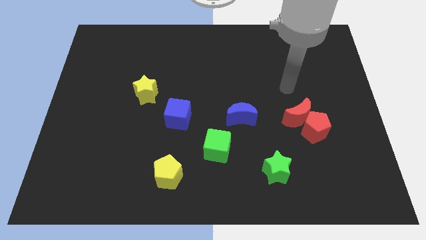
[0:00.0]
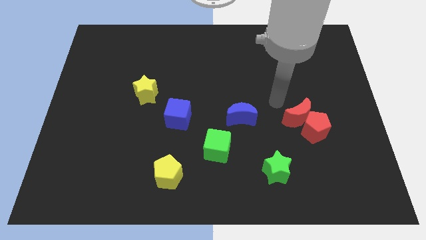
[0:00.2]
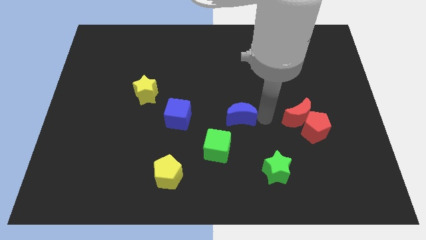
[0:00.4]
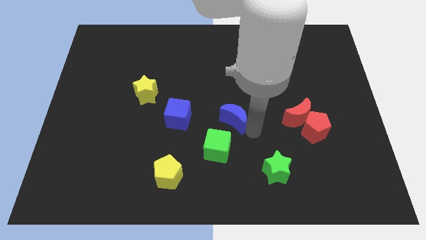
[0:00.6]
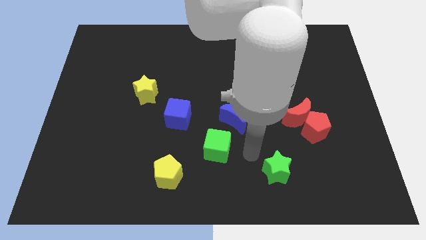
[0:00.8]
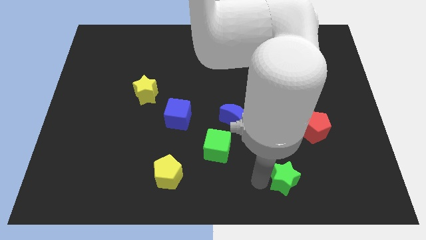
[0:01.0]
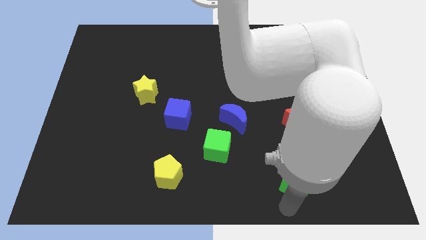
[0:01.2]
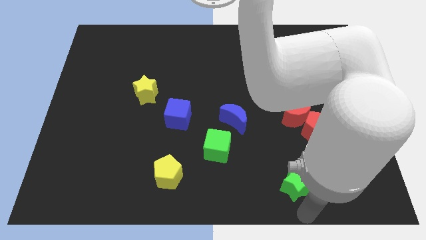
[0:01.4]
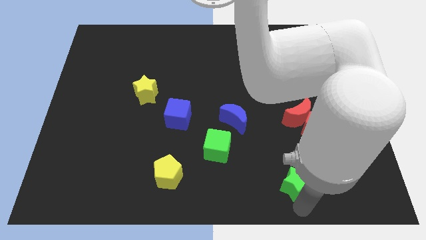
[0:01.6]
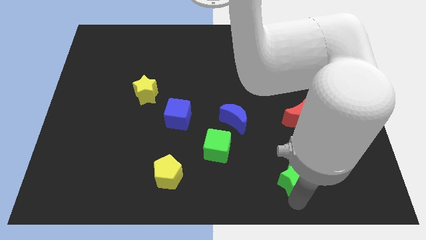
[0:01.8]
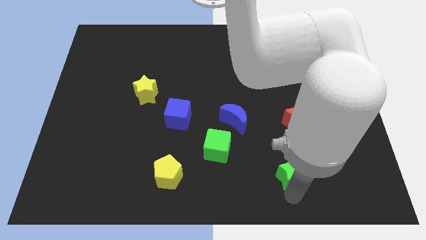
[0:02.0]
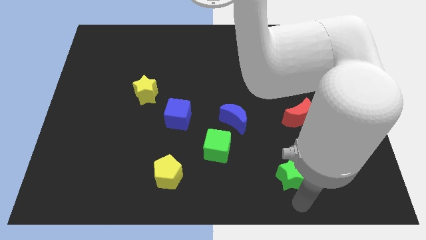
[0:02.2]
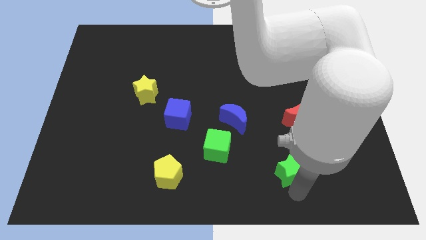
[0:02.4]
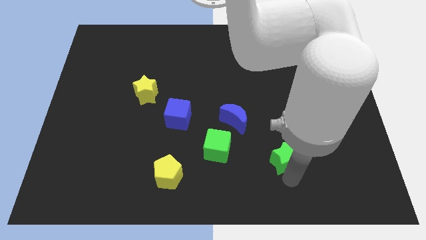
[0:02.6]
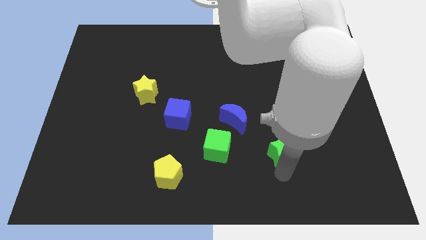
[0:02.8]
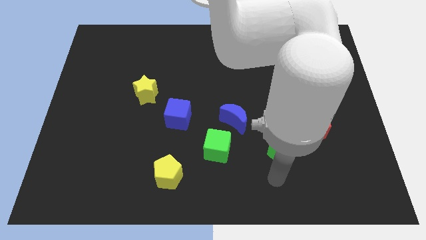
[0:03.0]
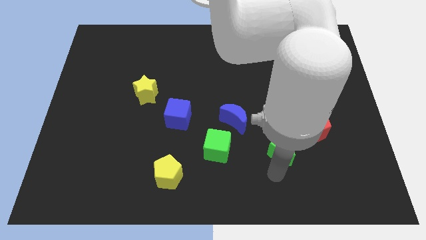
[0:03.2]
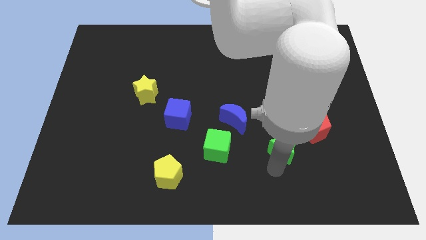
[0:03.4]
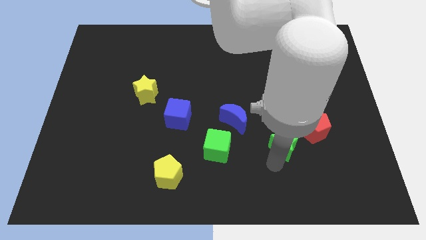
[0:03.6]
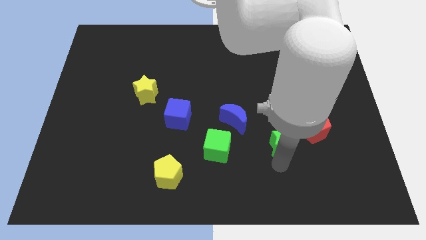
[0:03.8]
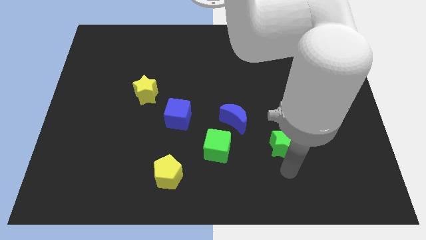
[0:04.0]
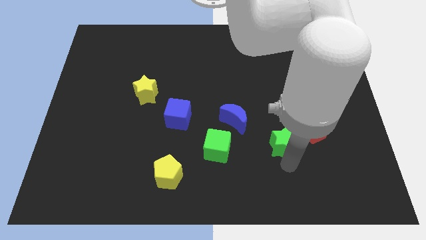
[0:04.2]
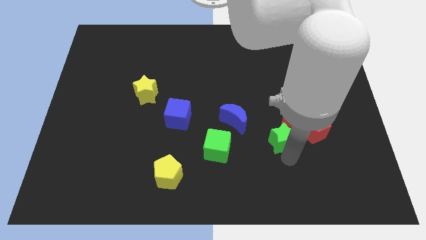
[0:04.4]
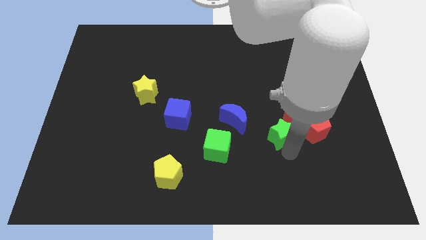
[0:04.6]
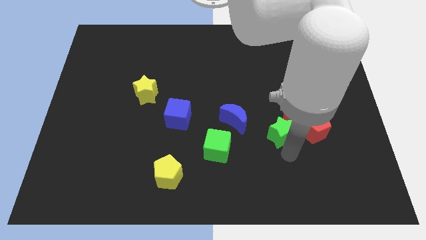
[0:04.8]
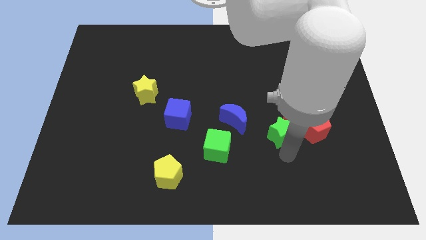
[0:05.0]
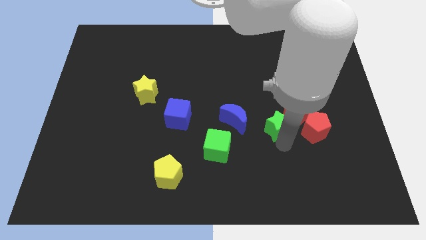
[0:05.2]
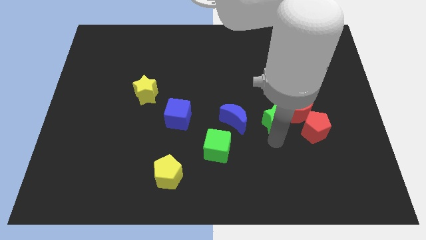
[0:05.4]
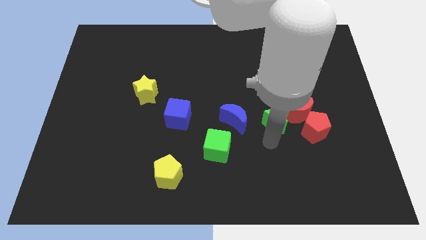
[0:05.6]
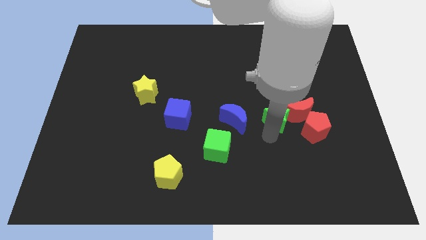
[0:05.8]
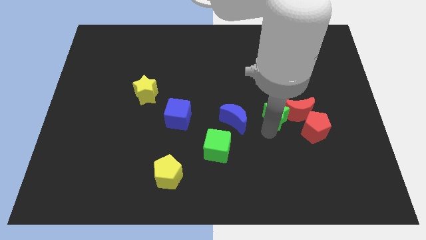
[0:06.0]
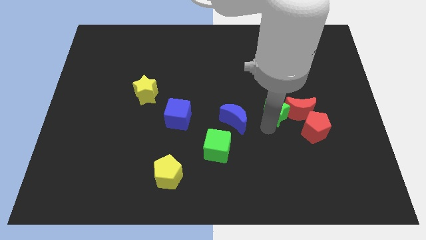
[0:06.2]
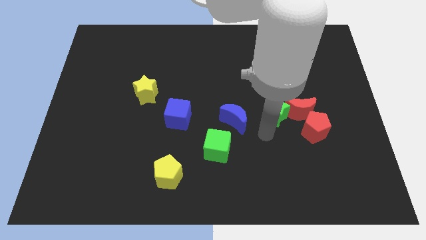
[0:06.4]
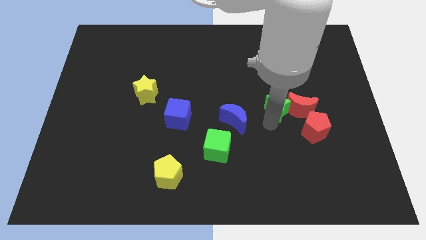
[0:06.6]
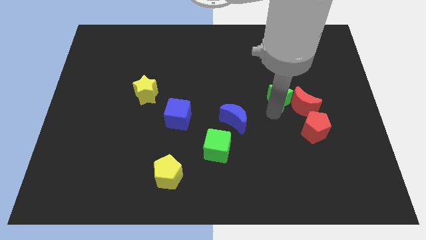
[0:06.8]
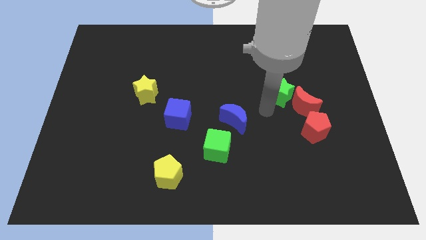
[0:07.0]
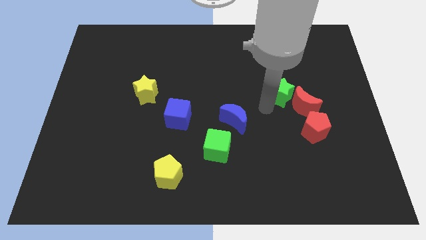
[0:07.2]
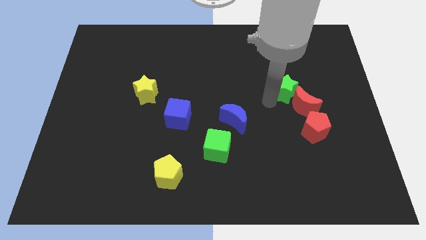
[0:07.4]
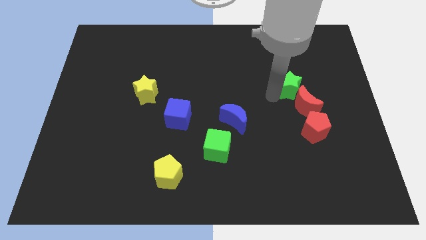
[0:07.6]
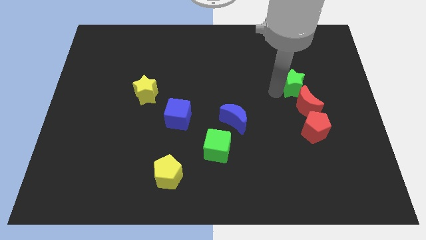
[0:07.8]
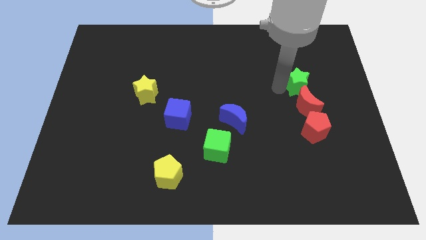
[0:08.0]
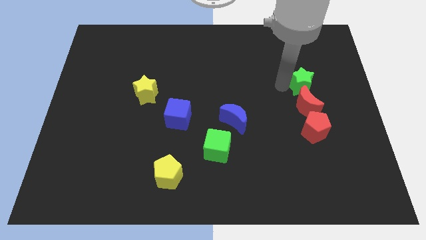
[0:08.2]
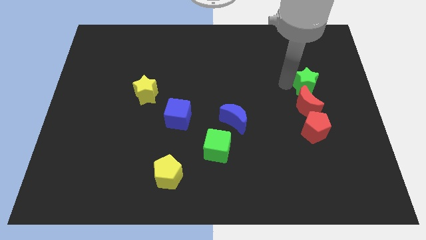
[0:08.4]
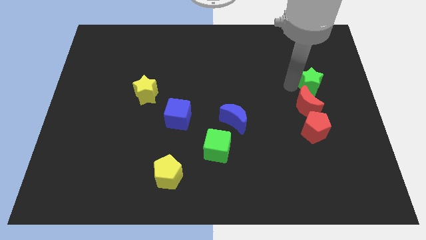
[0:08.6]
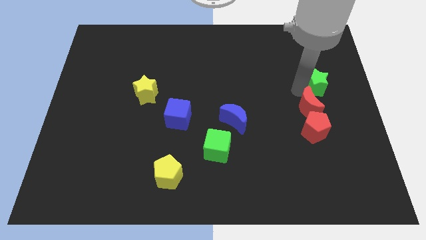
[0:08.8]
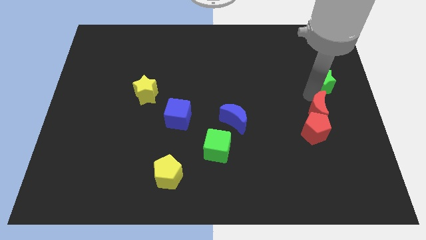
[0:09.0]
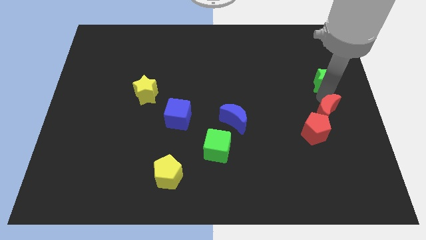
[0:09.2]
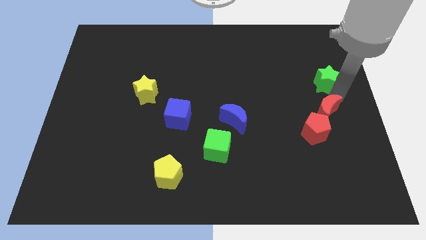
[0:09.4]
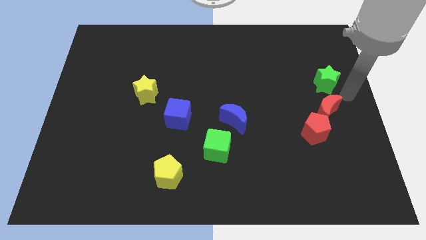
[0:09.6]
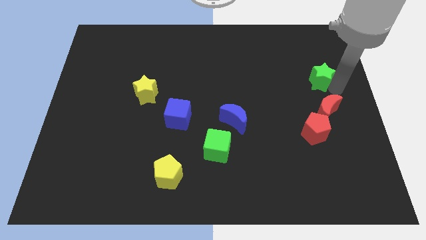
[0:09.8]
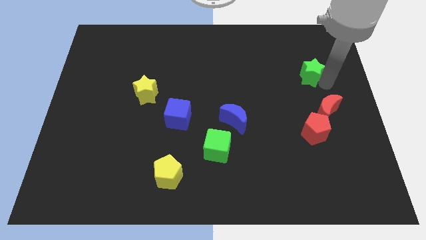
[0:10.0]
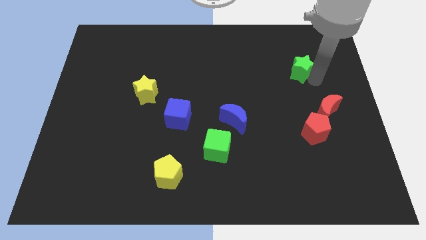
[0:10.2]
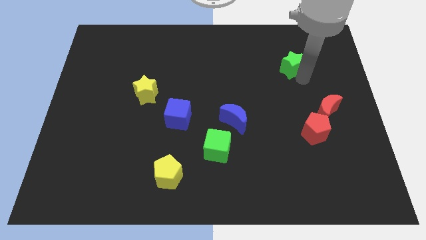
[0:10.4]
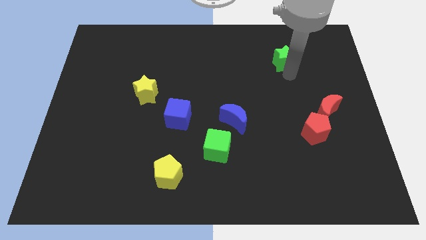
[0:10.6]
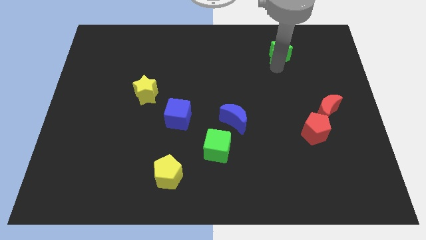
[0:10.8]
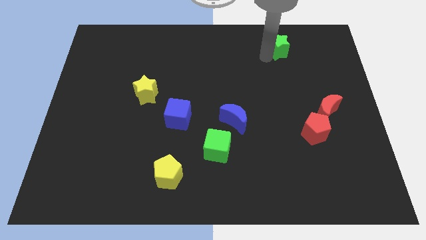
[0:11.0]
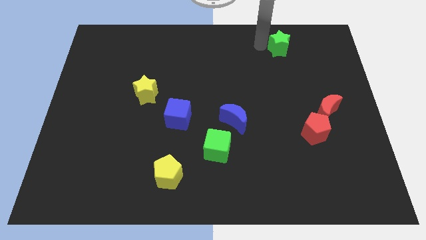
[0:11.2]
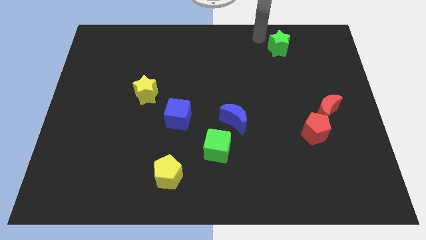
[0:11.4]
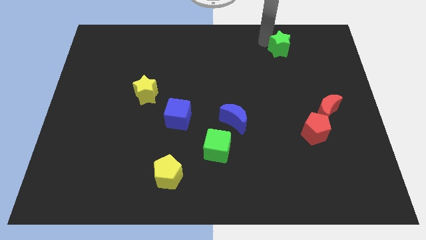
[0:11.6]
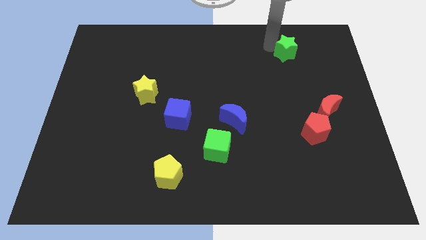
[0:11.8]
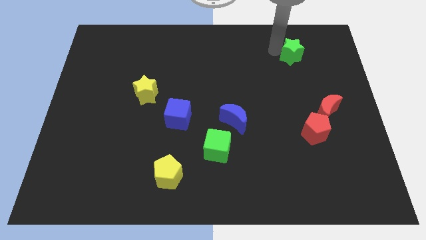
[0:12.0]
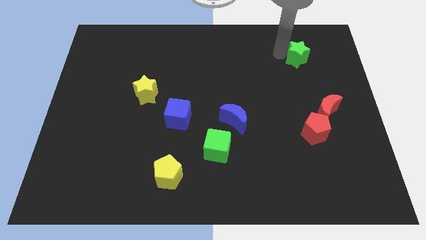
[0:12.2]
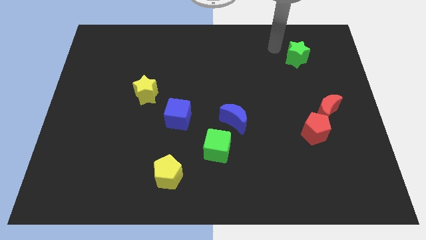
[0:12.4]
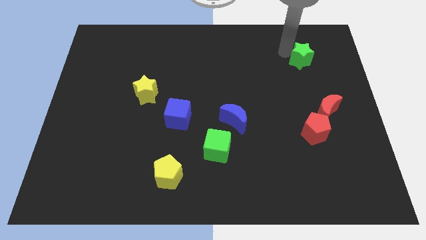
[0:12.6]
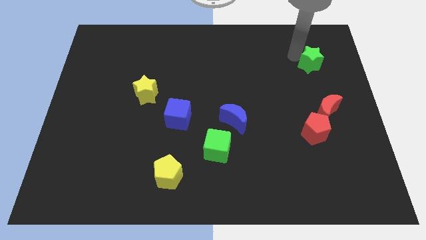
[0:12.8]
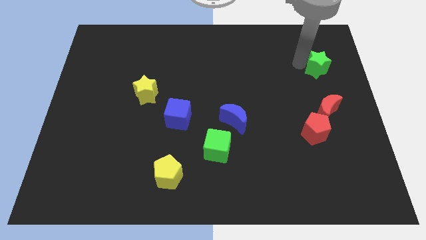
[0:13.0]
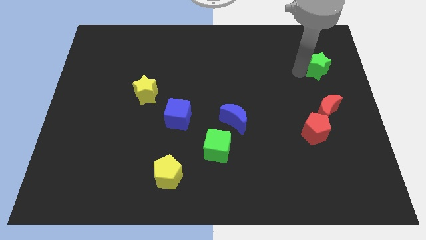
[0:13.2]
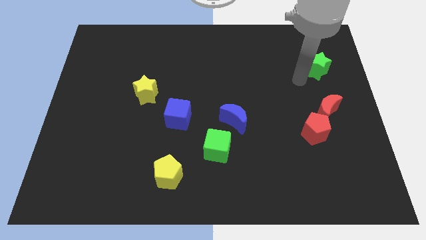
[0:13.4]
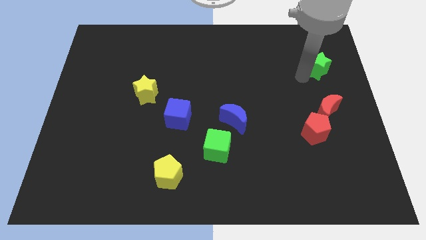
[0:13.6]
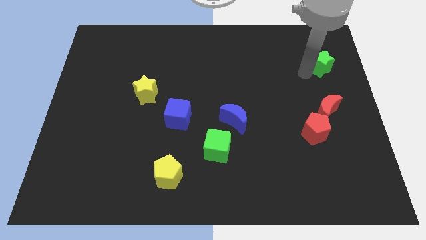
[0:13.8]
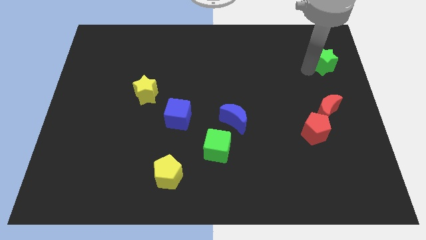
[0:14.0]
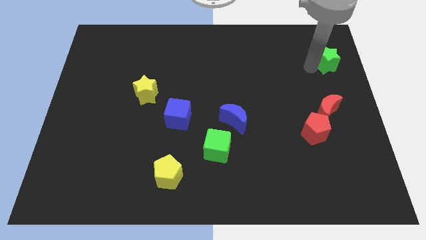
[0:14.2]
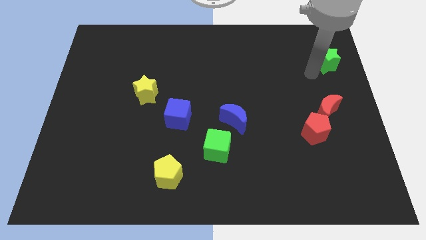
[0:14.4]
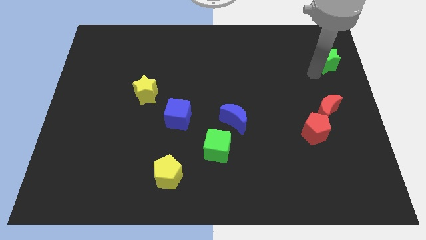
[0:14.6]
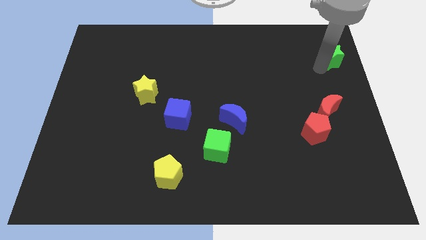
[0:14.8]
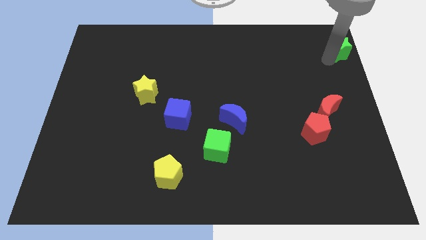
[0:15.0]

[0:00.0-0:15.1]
push the green star to the top right
